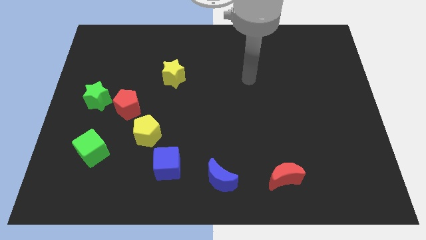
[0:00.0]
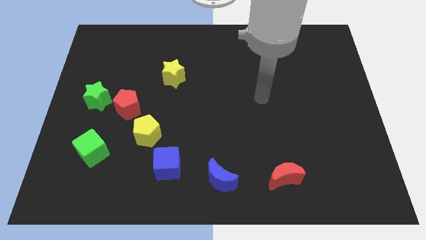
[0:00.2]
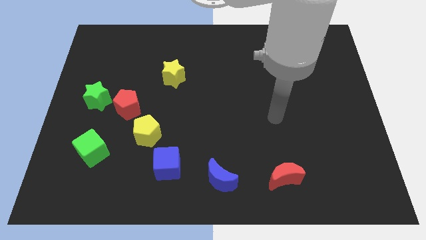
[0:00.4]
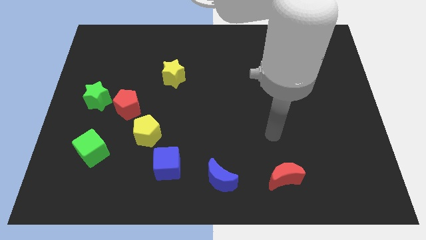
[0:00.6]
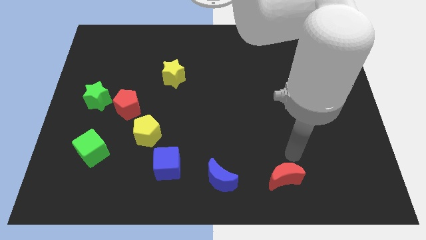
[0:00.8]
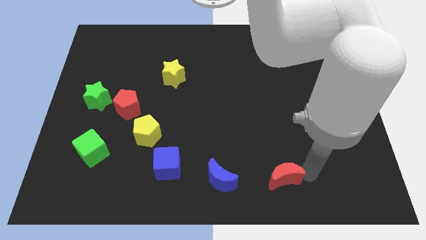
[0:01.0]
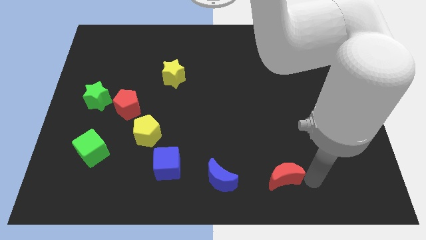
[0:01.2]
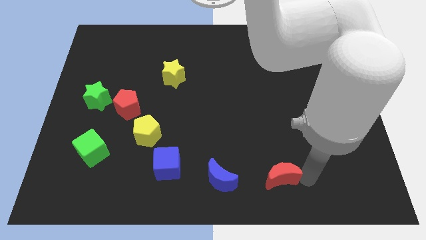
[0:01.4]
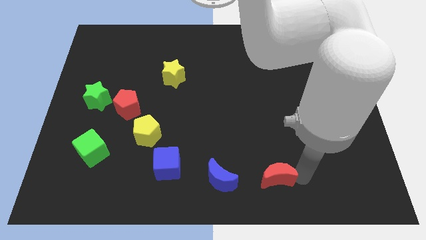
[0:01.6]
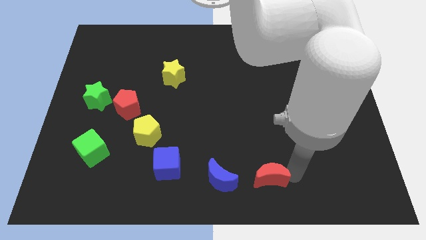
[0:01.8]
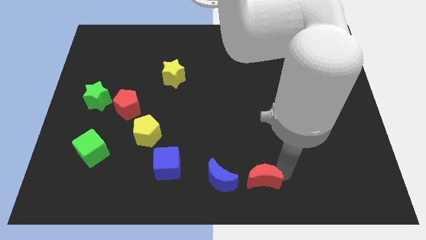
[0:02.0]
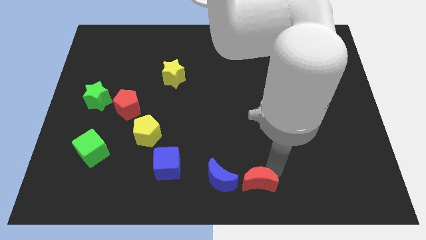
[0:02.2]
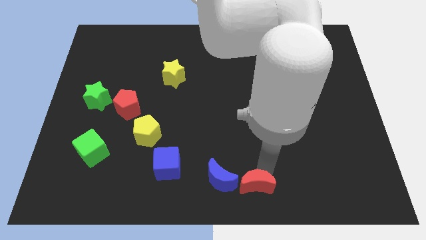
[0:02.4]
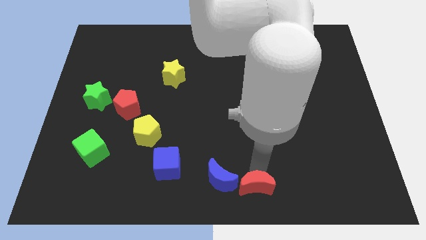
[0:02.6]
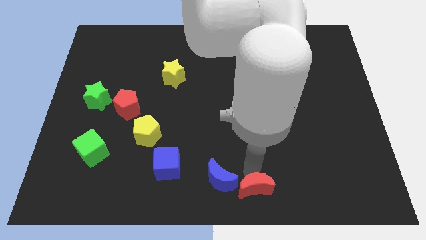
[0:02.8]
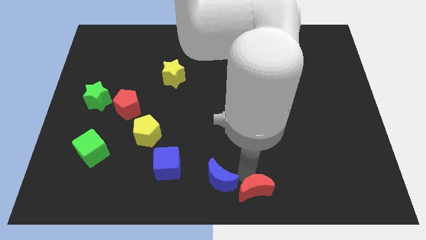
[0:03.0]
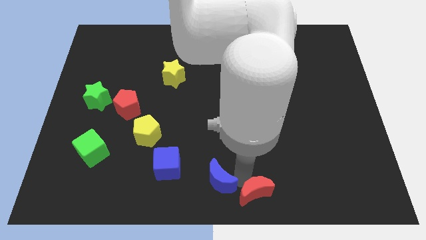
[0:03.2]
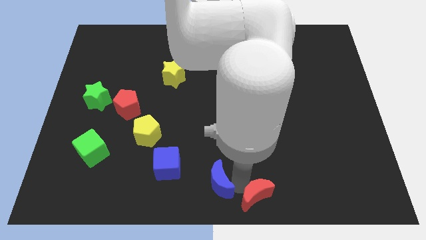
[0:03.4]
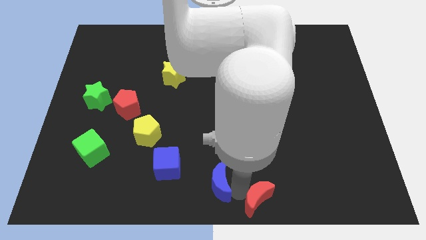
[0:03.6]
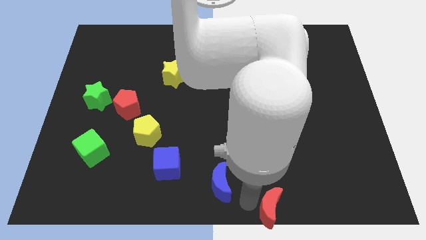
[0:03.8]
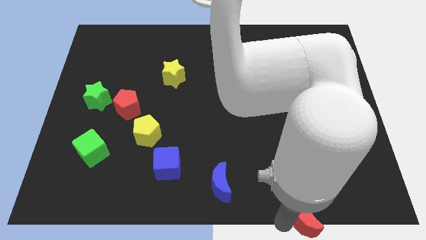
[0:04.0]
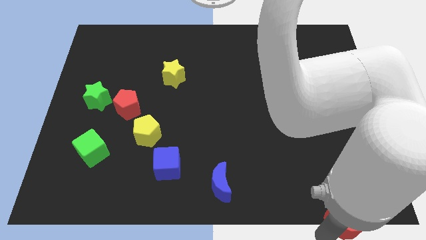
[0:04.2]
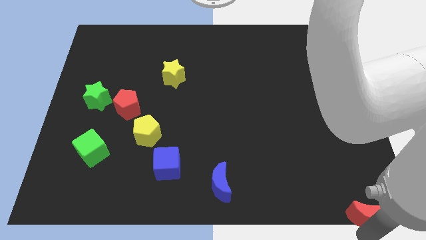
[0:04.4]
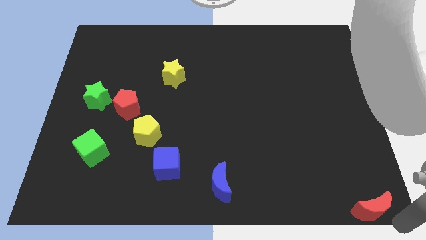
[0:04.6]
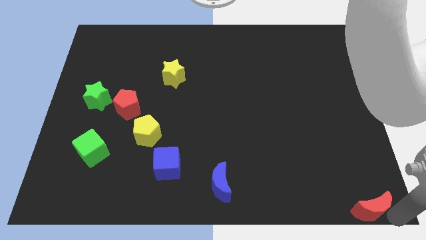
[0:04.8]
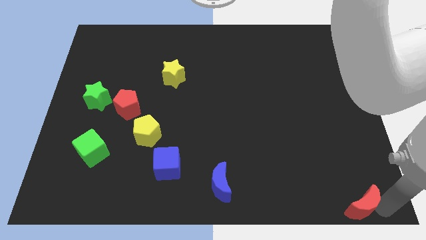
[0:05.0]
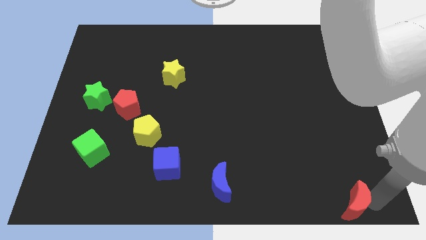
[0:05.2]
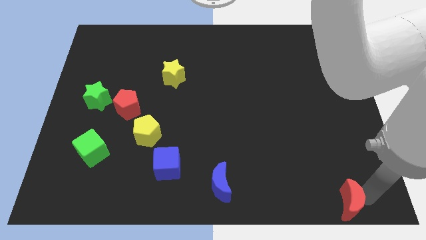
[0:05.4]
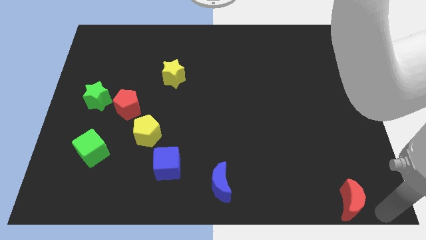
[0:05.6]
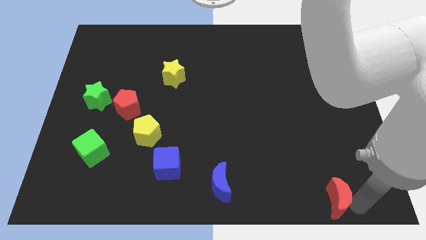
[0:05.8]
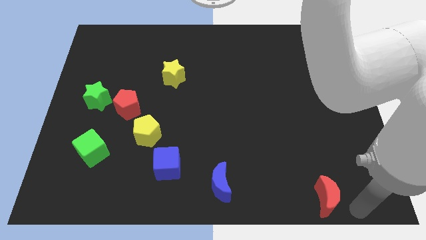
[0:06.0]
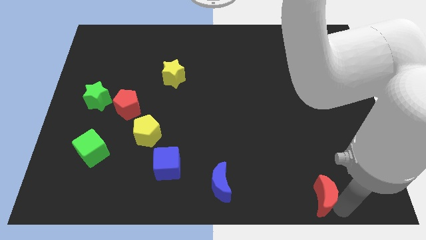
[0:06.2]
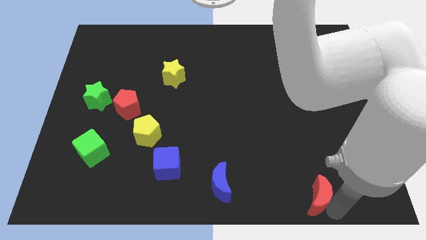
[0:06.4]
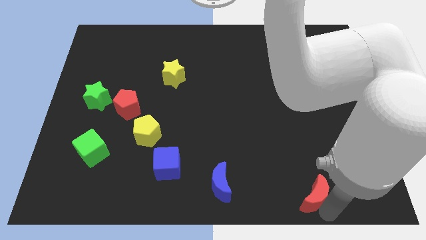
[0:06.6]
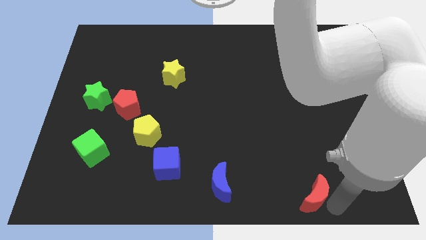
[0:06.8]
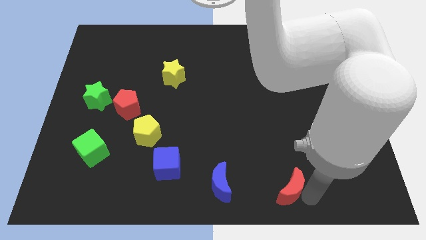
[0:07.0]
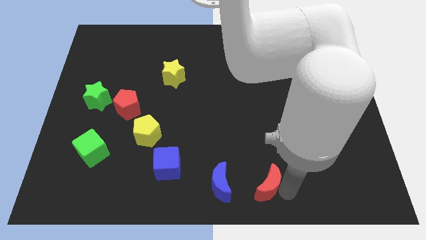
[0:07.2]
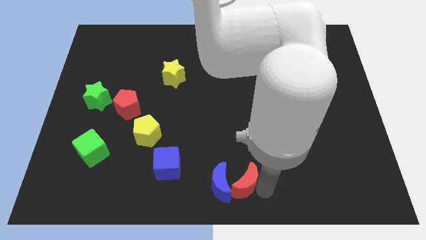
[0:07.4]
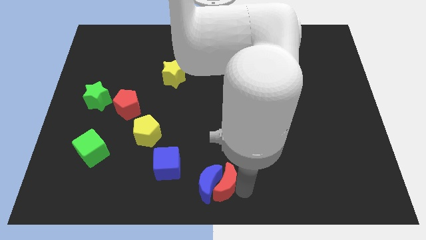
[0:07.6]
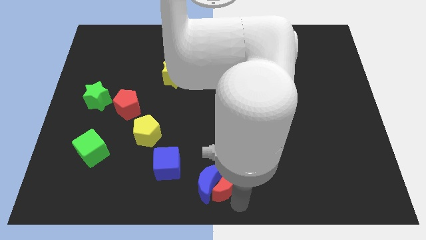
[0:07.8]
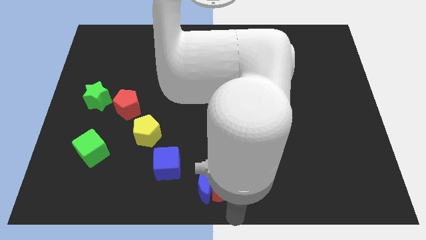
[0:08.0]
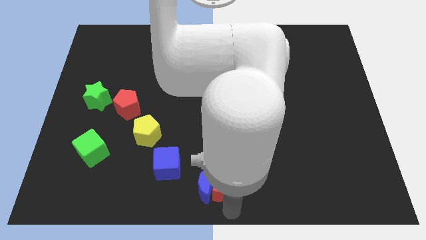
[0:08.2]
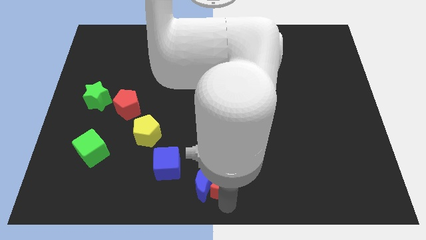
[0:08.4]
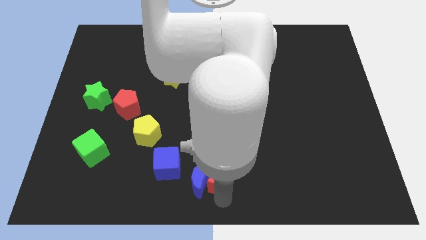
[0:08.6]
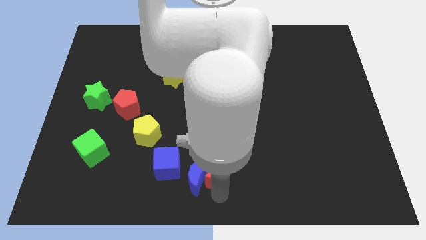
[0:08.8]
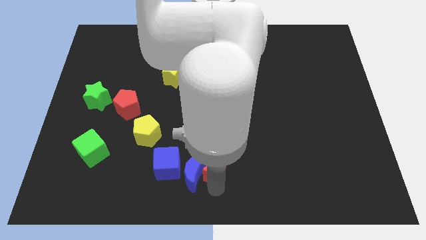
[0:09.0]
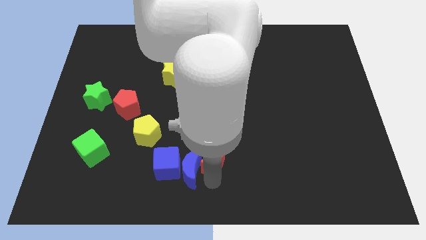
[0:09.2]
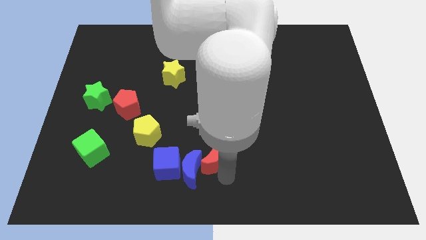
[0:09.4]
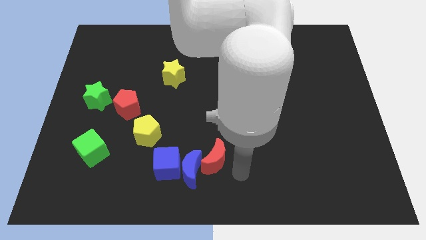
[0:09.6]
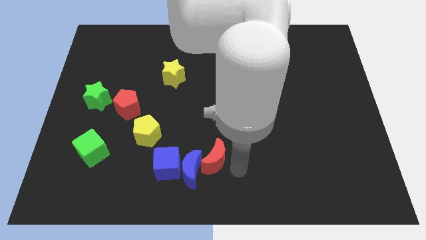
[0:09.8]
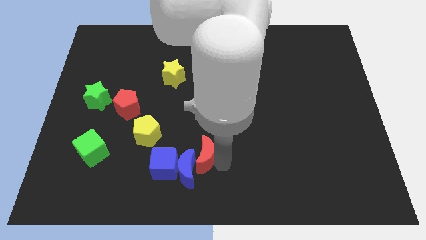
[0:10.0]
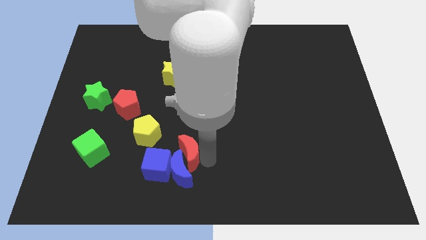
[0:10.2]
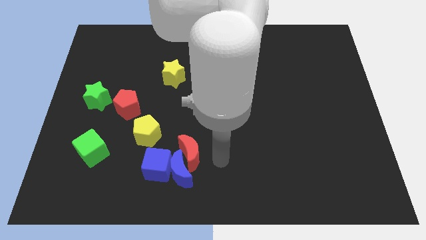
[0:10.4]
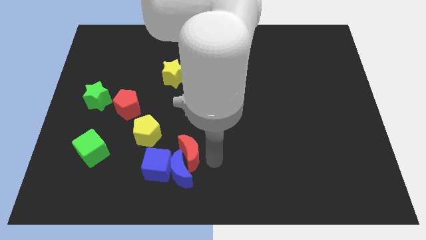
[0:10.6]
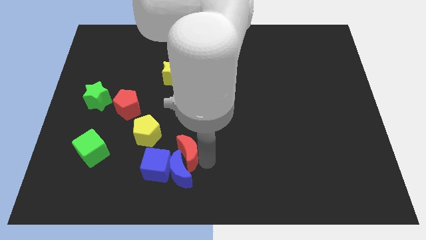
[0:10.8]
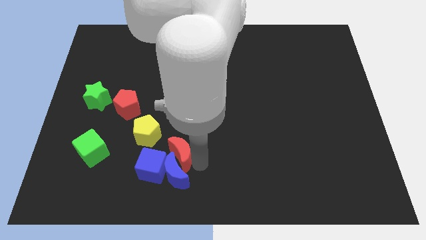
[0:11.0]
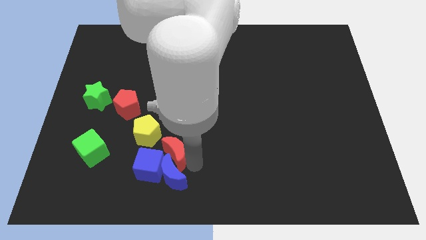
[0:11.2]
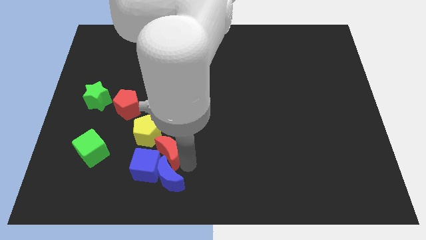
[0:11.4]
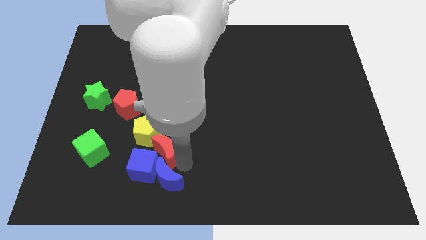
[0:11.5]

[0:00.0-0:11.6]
push the red moon to the right of the green cube

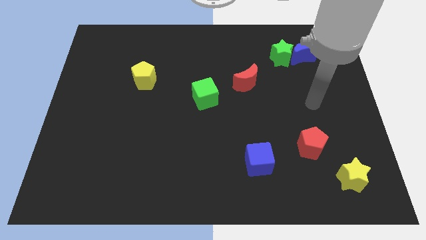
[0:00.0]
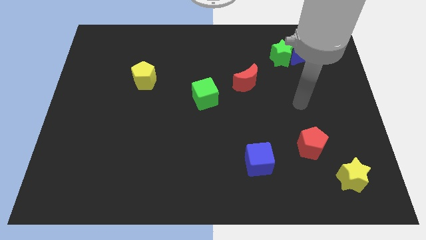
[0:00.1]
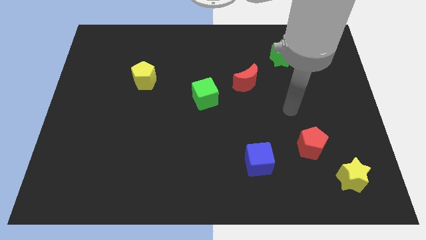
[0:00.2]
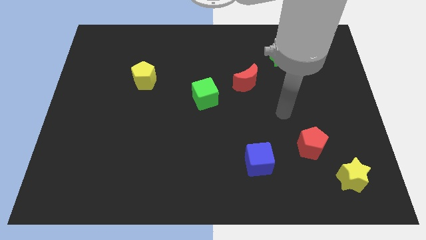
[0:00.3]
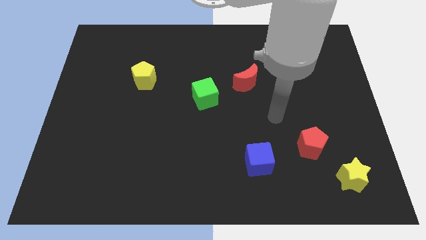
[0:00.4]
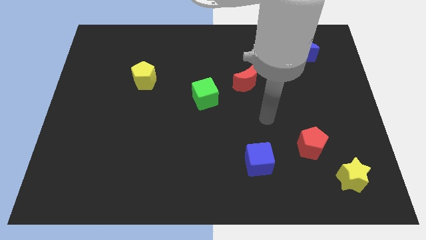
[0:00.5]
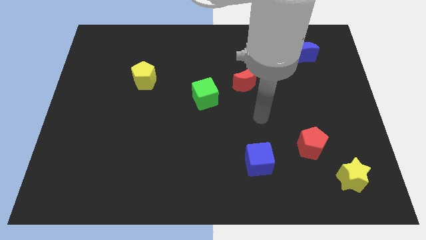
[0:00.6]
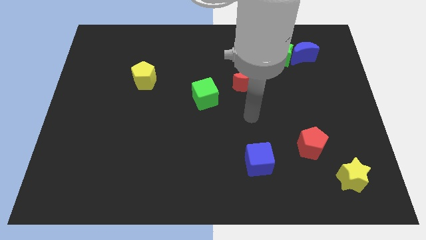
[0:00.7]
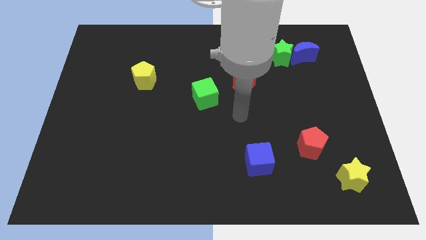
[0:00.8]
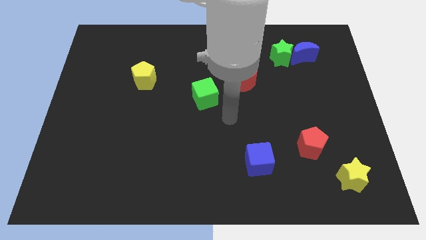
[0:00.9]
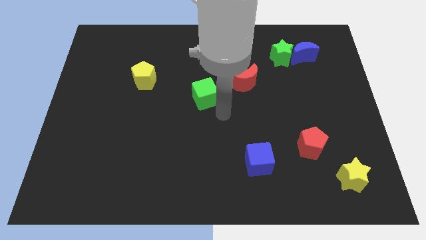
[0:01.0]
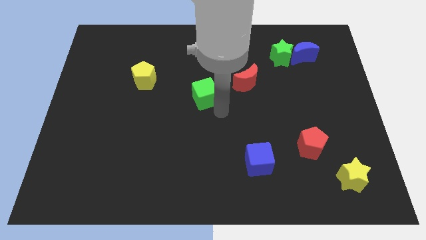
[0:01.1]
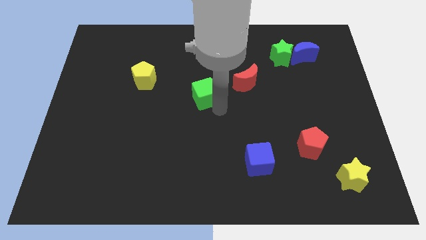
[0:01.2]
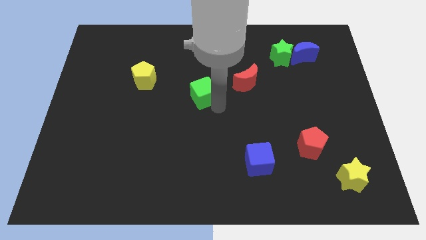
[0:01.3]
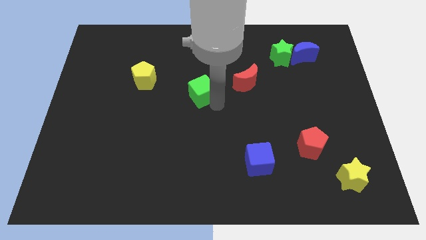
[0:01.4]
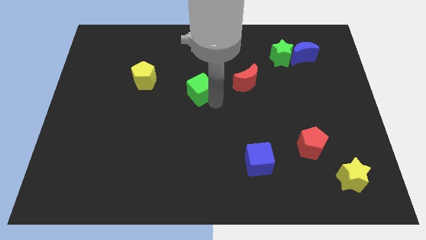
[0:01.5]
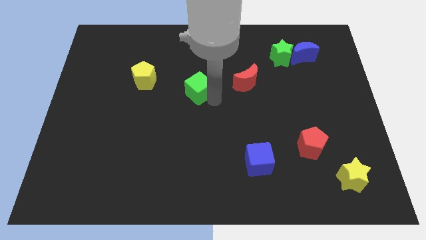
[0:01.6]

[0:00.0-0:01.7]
put the green cube to the right of the yellow pentagon
